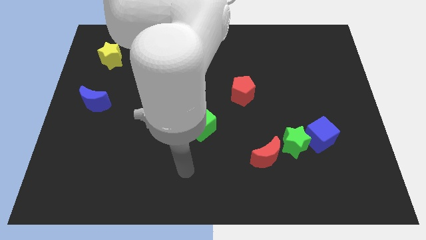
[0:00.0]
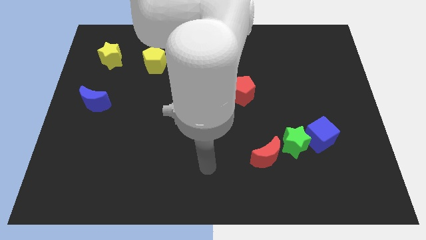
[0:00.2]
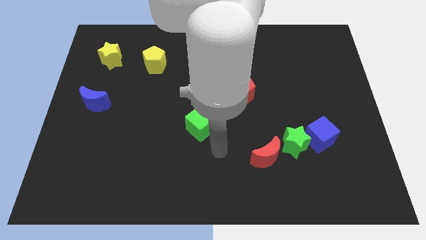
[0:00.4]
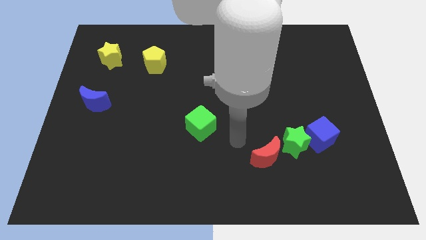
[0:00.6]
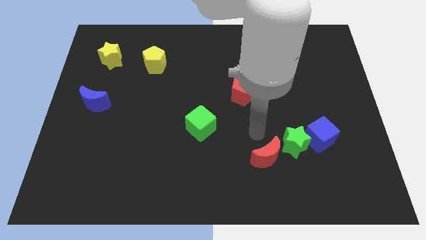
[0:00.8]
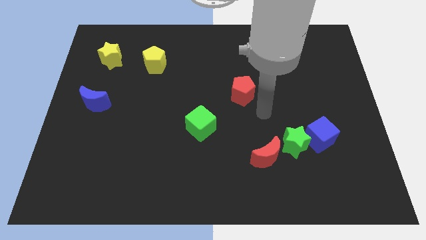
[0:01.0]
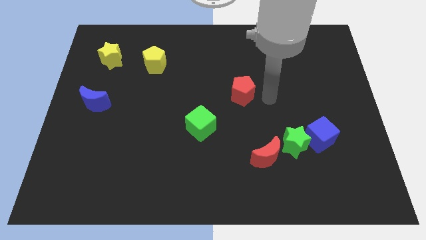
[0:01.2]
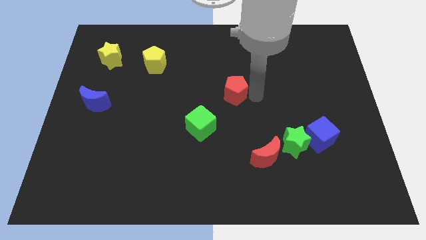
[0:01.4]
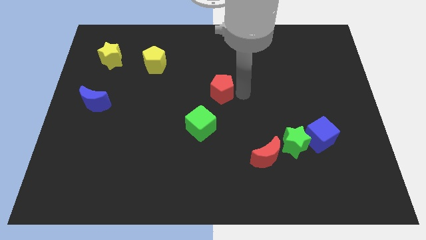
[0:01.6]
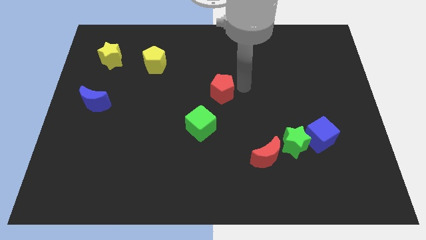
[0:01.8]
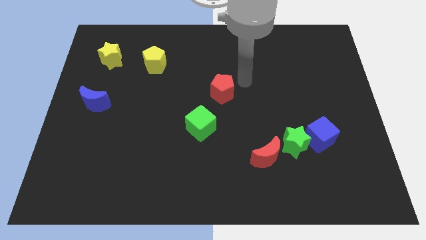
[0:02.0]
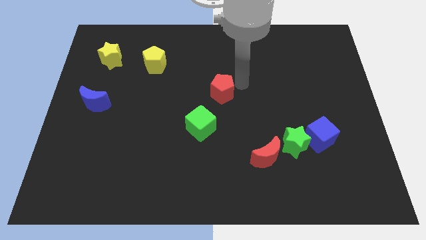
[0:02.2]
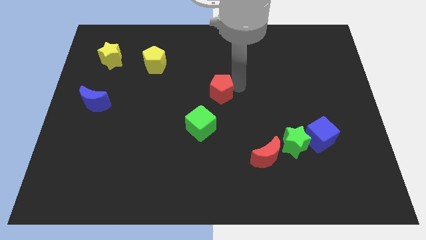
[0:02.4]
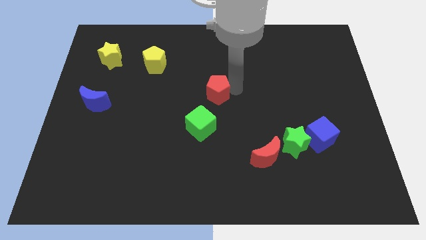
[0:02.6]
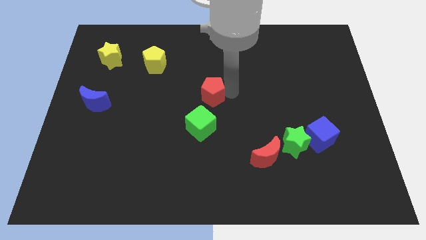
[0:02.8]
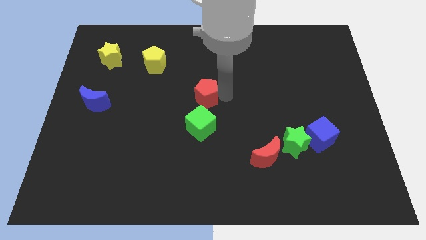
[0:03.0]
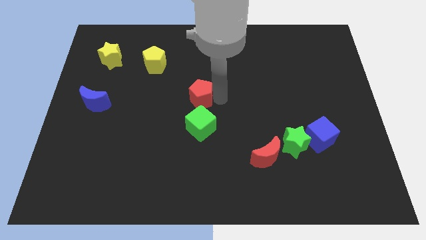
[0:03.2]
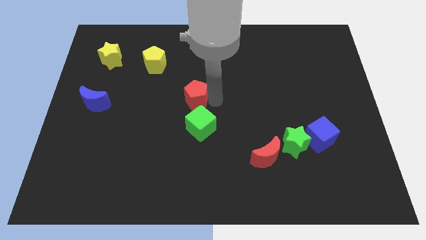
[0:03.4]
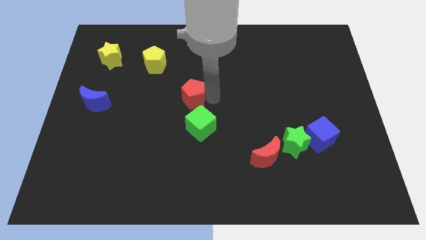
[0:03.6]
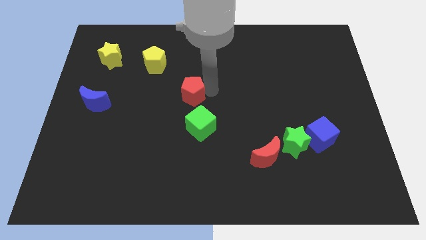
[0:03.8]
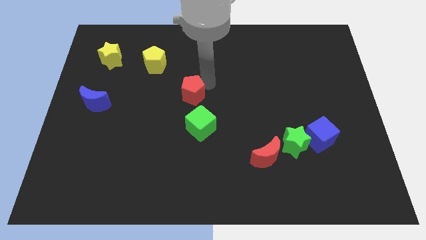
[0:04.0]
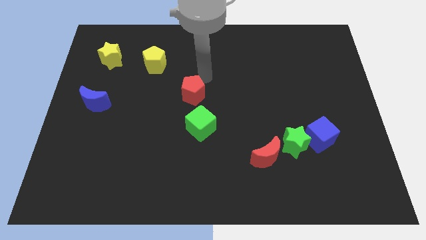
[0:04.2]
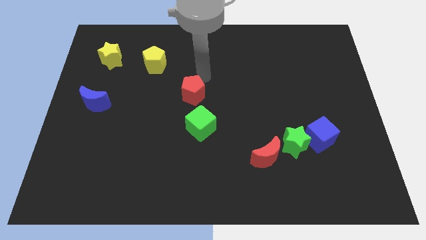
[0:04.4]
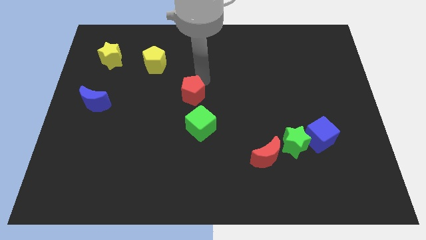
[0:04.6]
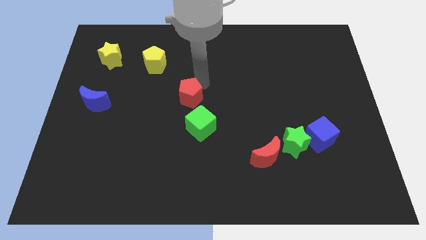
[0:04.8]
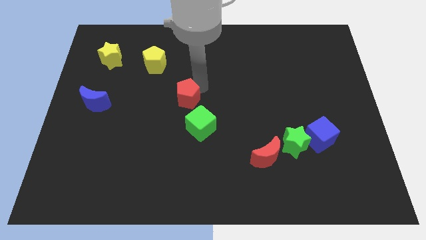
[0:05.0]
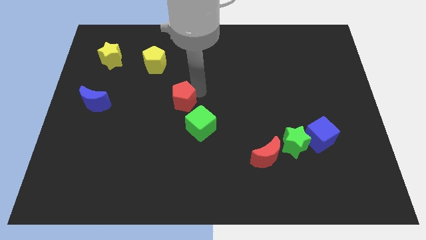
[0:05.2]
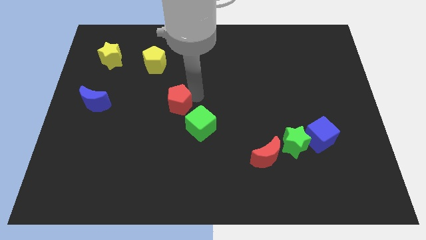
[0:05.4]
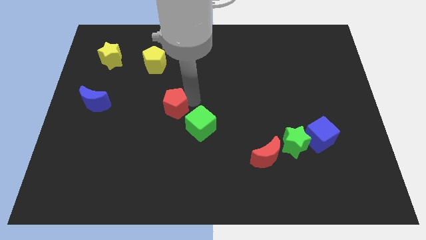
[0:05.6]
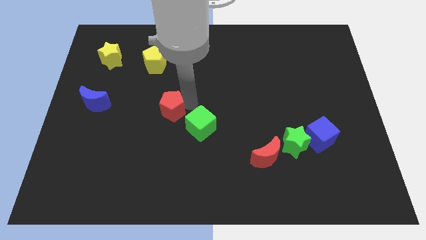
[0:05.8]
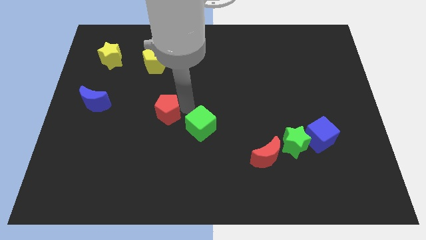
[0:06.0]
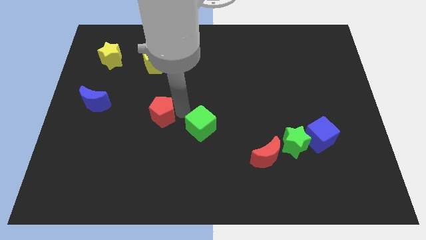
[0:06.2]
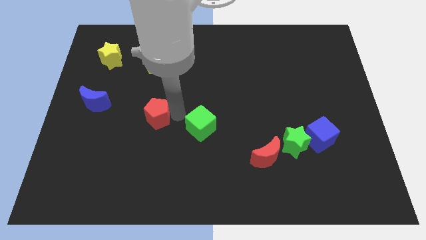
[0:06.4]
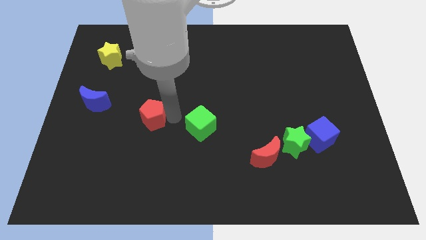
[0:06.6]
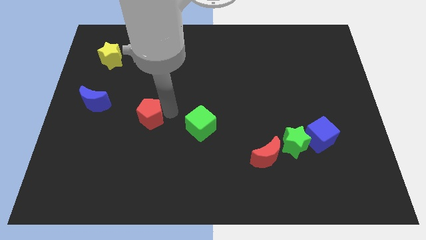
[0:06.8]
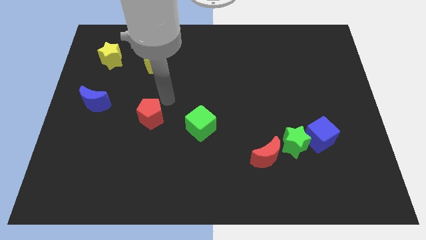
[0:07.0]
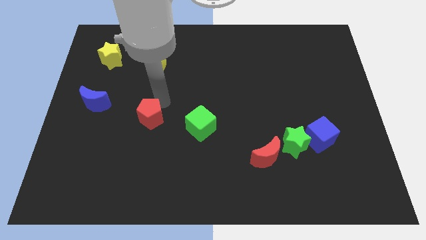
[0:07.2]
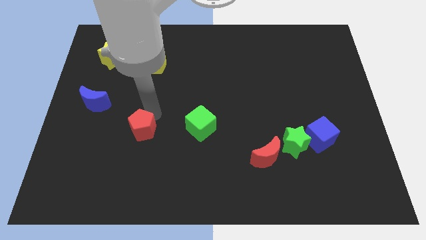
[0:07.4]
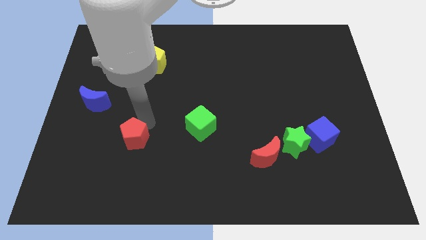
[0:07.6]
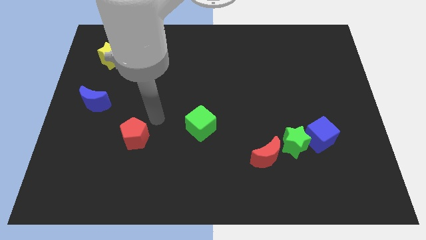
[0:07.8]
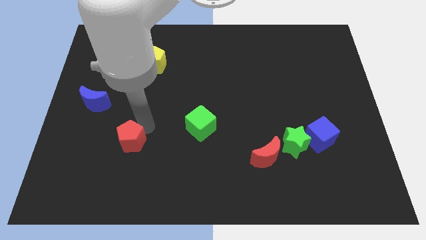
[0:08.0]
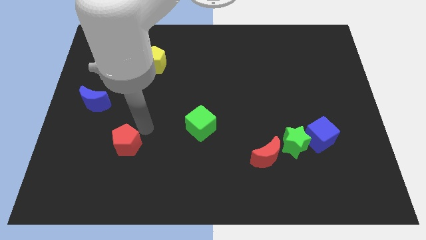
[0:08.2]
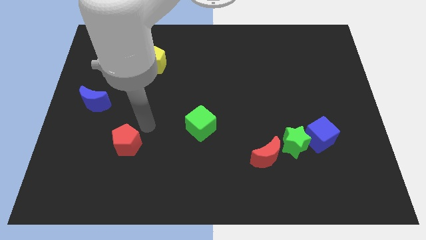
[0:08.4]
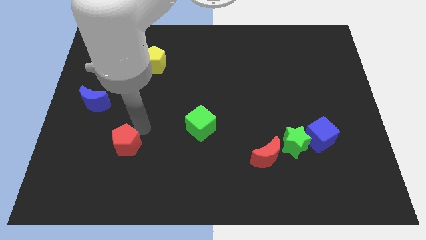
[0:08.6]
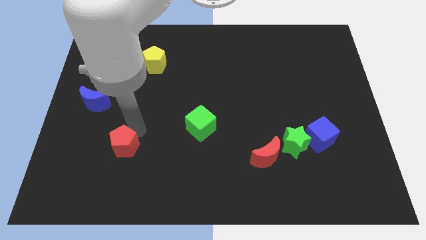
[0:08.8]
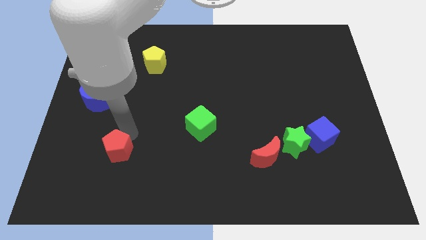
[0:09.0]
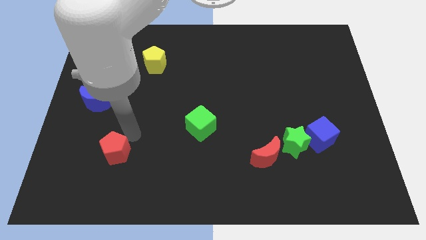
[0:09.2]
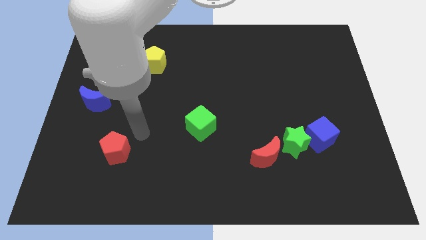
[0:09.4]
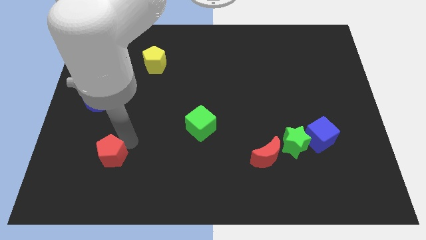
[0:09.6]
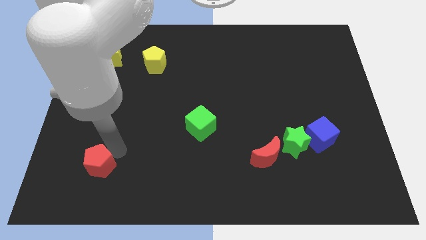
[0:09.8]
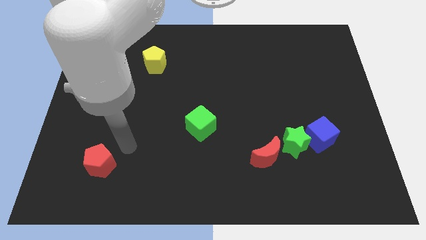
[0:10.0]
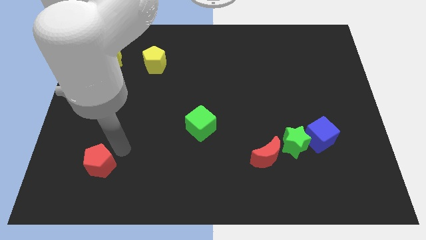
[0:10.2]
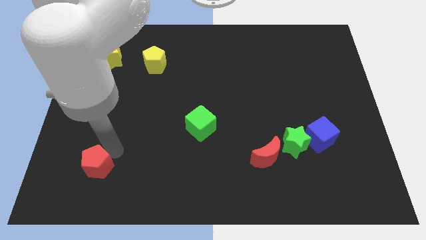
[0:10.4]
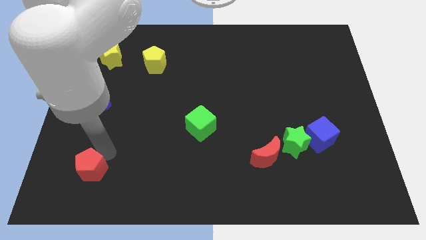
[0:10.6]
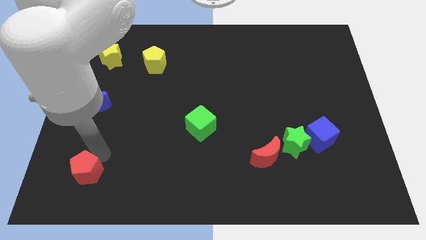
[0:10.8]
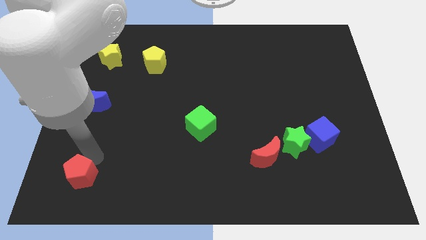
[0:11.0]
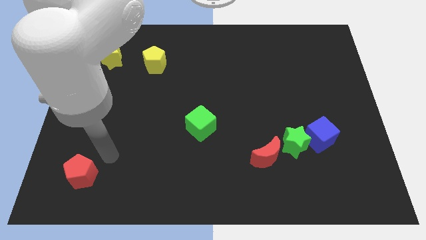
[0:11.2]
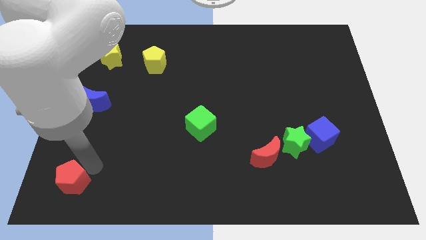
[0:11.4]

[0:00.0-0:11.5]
push the red pentagon to the lower left corner
